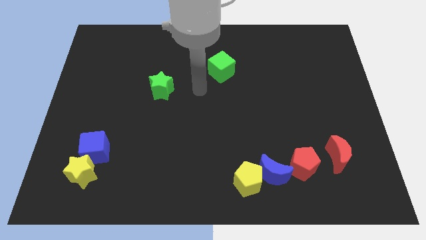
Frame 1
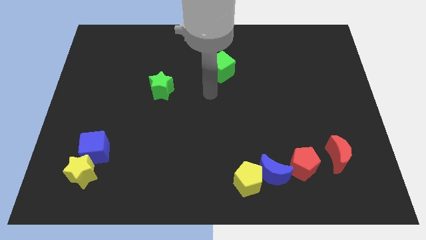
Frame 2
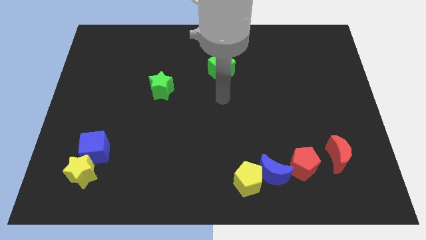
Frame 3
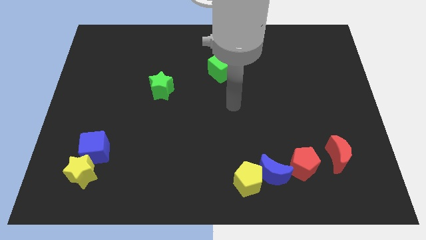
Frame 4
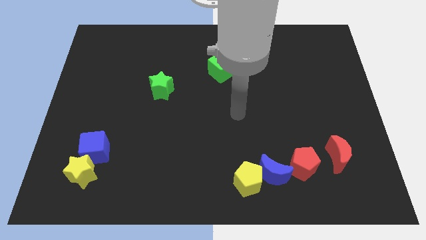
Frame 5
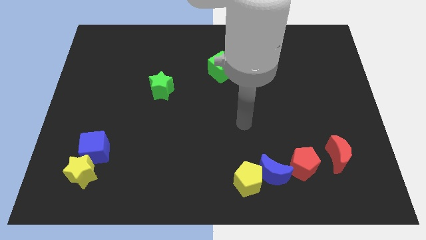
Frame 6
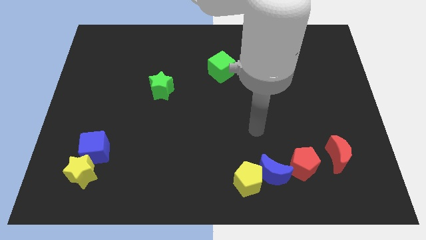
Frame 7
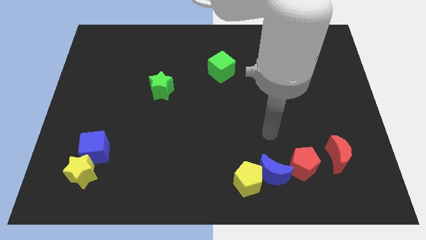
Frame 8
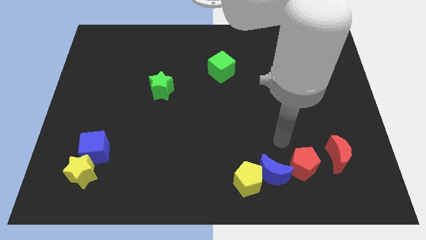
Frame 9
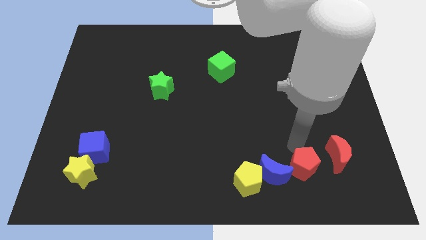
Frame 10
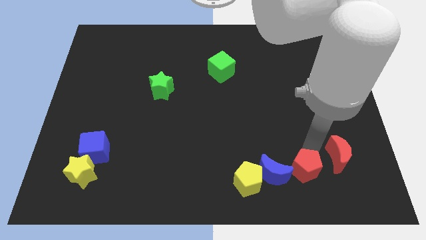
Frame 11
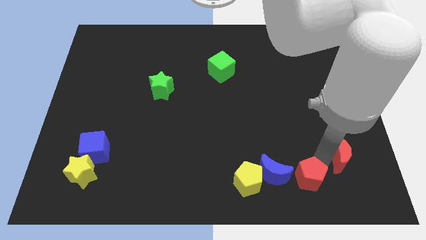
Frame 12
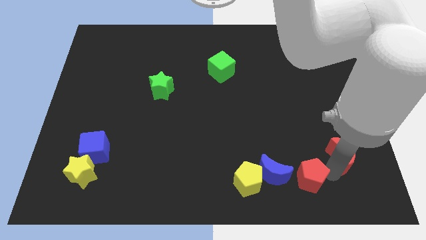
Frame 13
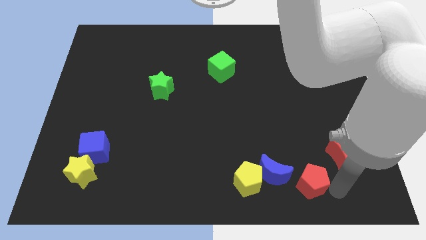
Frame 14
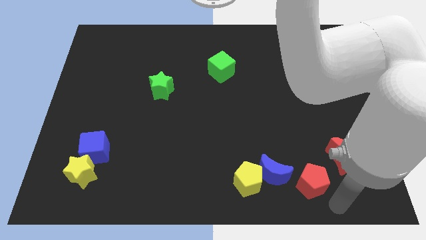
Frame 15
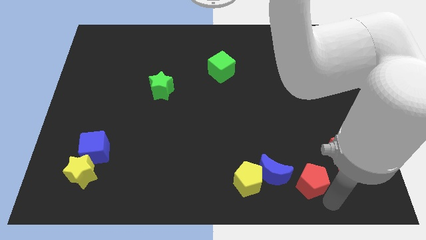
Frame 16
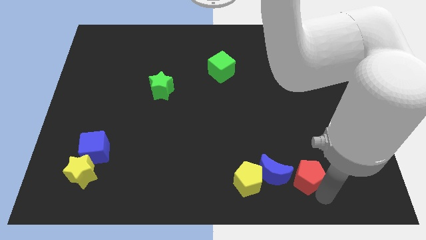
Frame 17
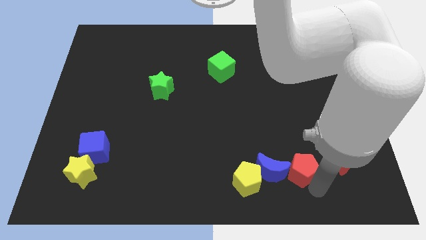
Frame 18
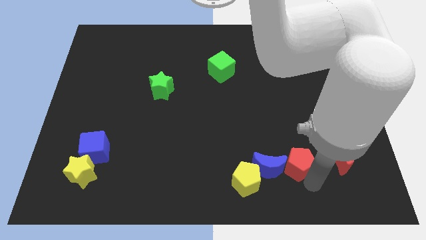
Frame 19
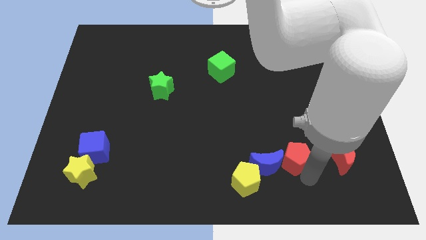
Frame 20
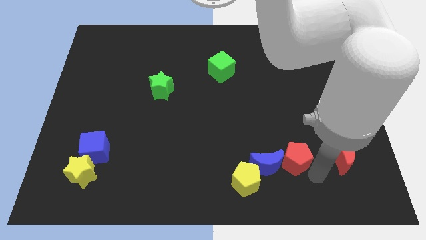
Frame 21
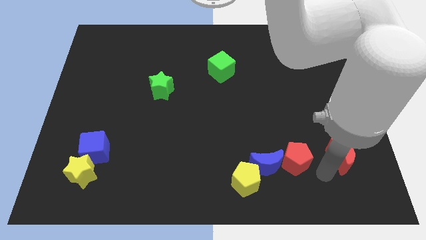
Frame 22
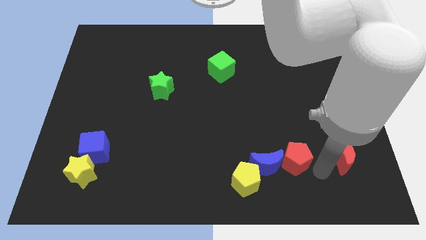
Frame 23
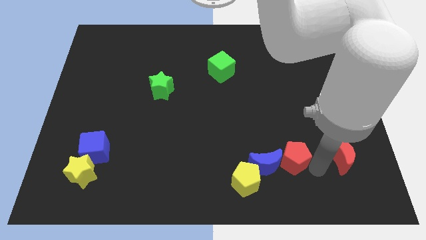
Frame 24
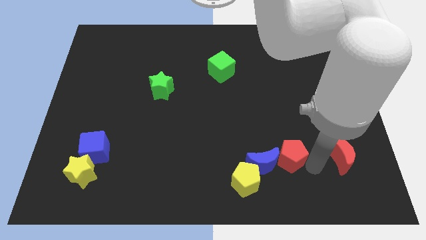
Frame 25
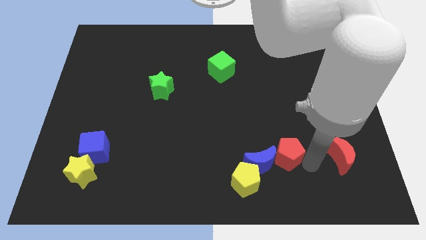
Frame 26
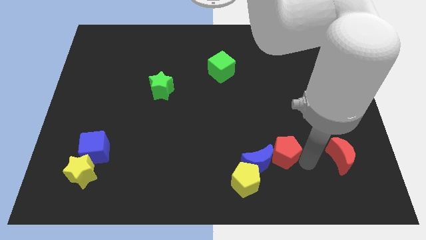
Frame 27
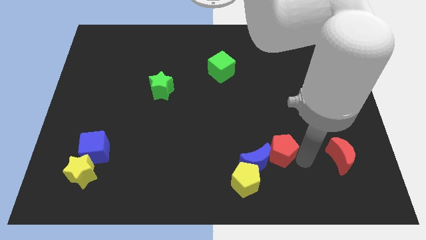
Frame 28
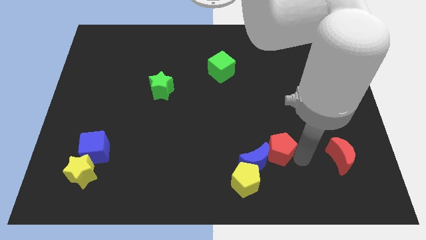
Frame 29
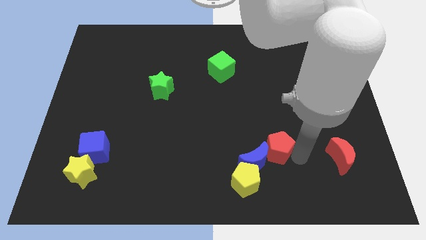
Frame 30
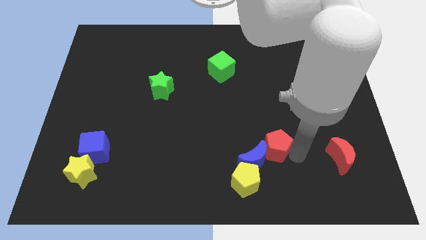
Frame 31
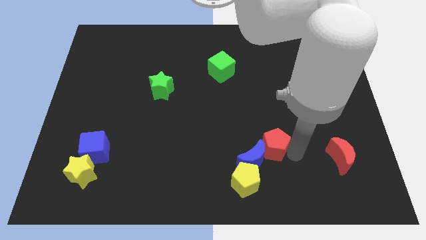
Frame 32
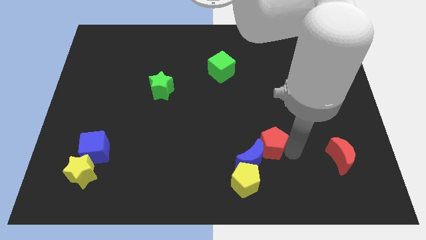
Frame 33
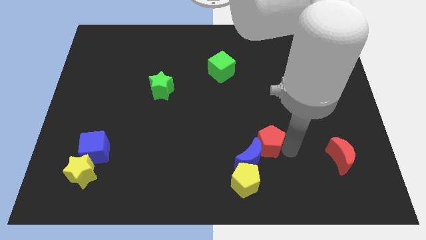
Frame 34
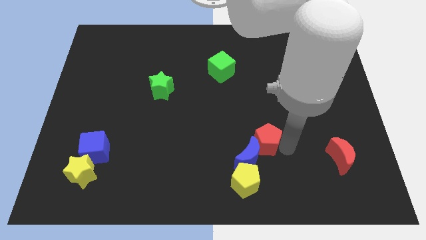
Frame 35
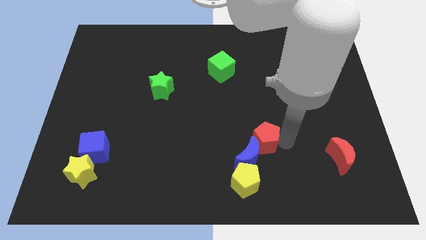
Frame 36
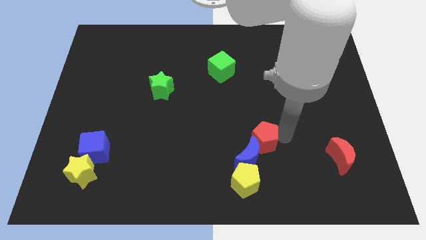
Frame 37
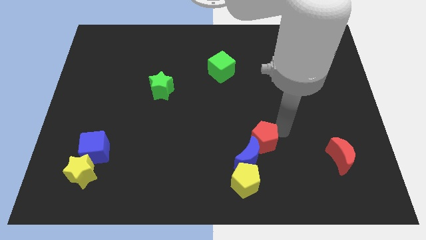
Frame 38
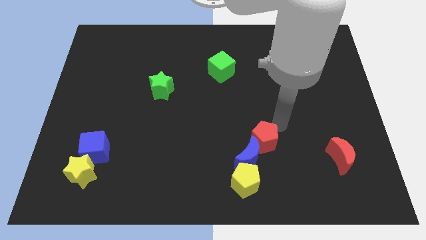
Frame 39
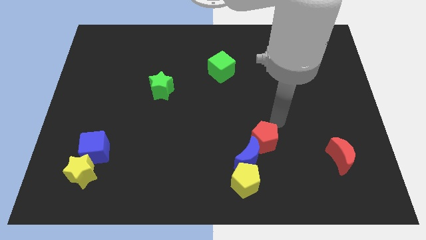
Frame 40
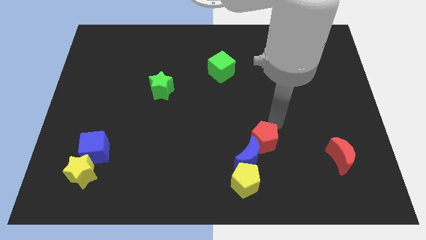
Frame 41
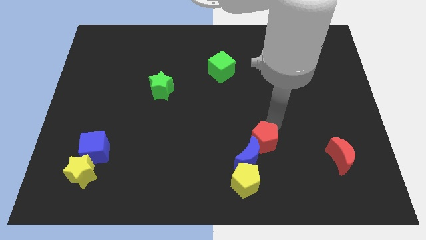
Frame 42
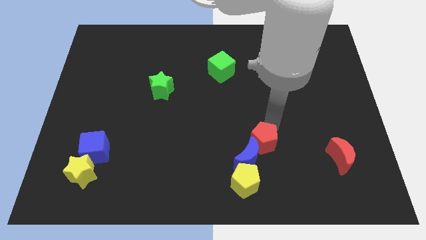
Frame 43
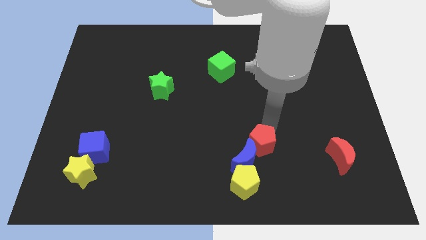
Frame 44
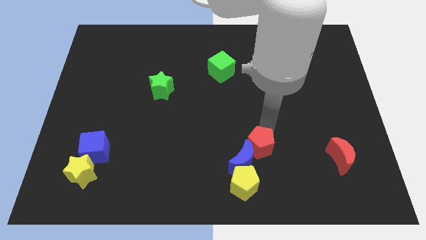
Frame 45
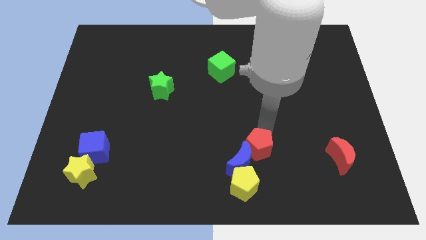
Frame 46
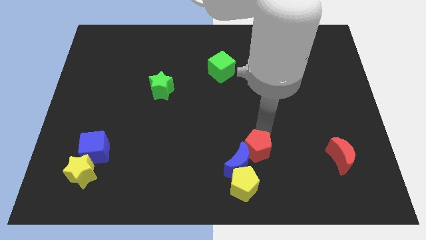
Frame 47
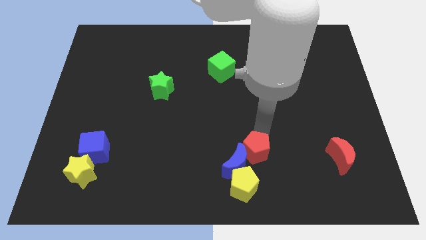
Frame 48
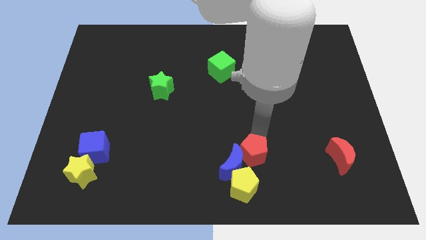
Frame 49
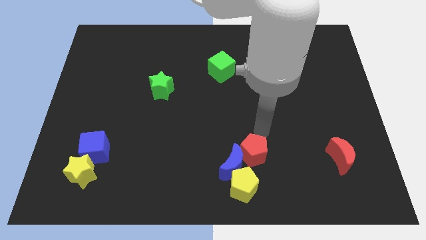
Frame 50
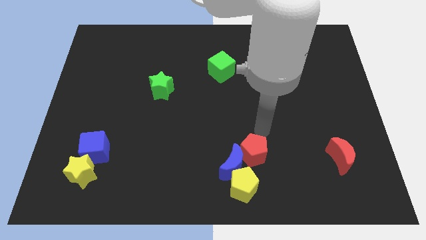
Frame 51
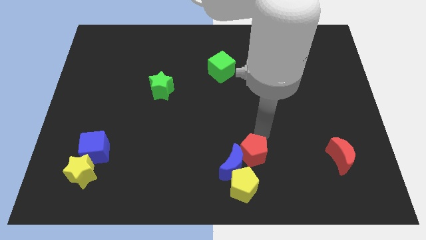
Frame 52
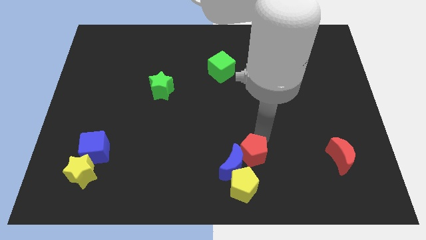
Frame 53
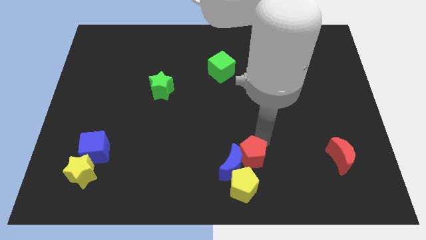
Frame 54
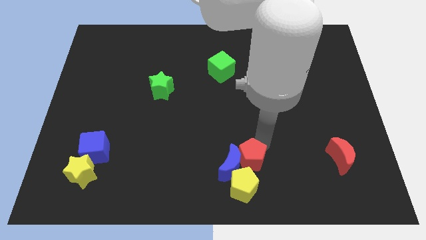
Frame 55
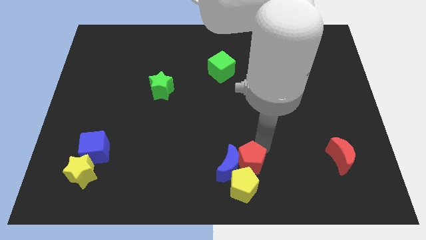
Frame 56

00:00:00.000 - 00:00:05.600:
move the red pentagon close to the yellow pentagon

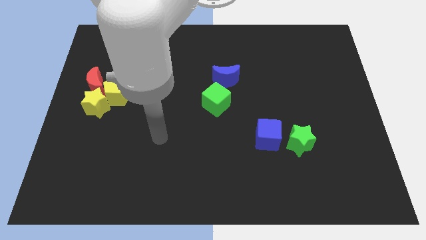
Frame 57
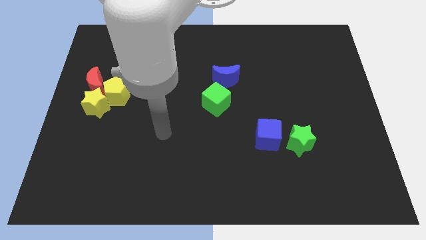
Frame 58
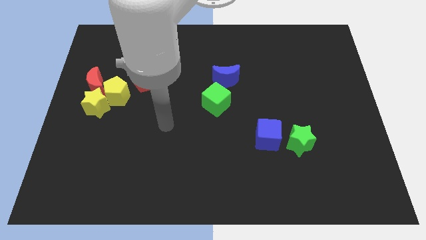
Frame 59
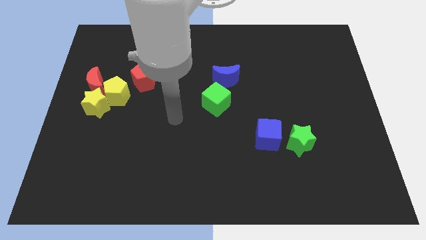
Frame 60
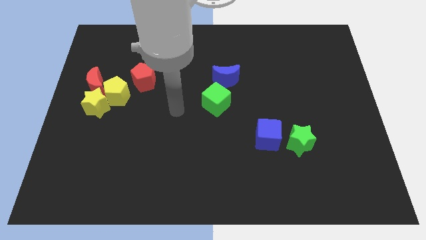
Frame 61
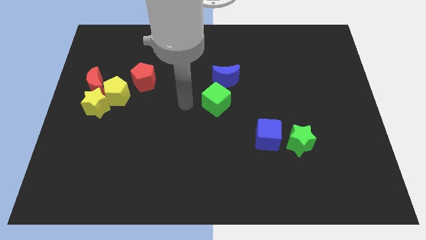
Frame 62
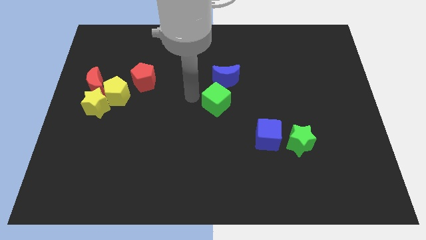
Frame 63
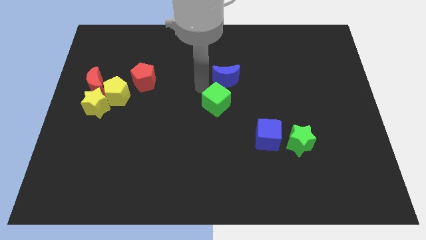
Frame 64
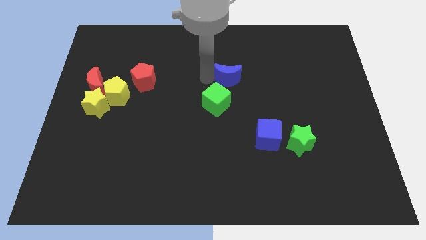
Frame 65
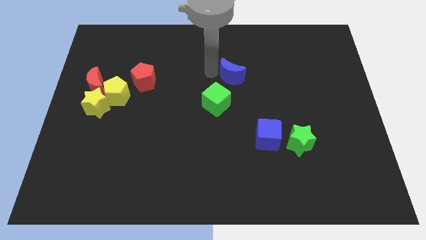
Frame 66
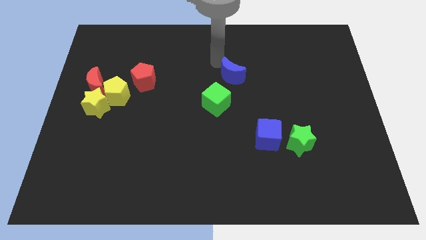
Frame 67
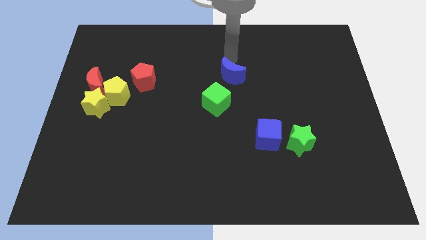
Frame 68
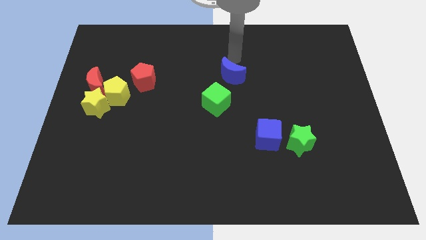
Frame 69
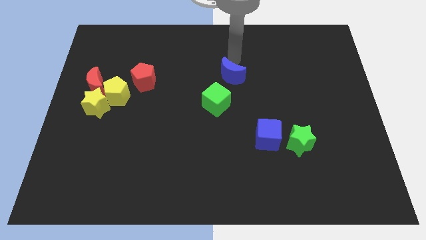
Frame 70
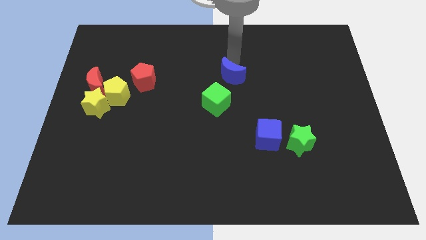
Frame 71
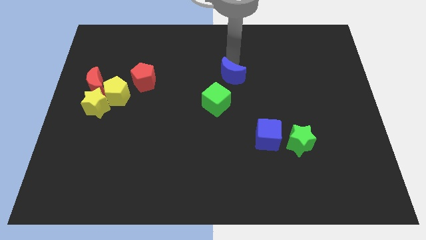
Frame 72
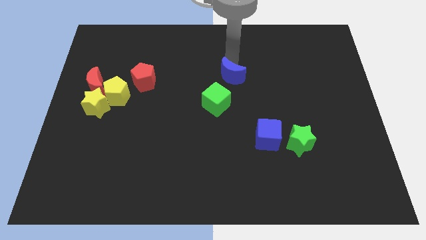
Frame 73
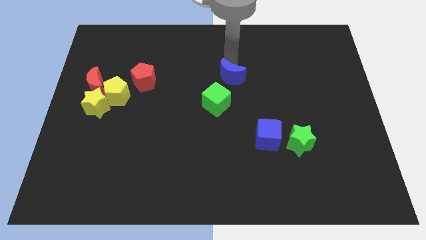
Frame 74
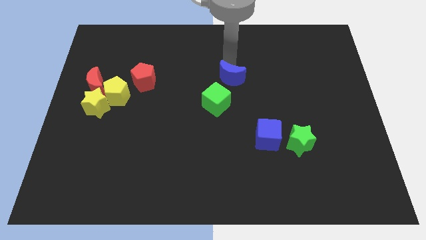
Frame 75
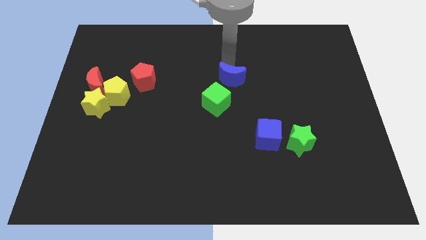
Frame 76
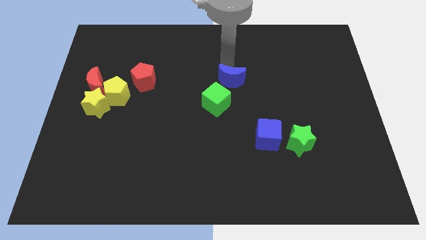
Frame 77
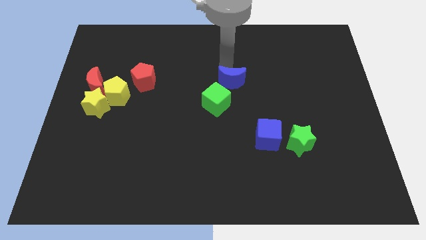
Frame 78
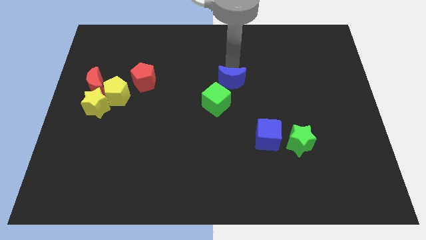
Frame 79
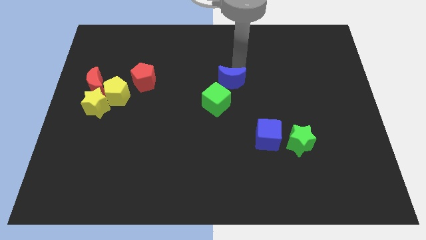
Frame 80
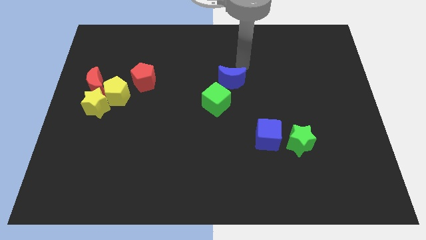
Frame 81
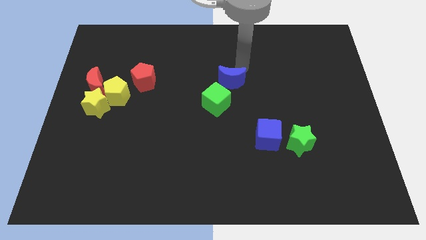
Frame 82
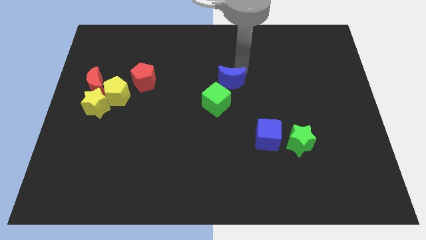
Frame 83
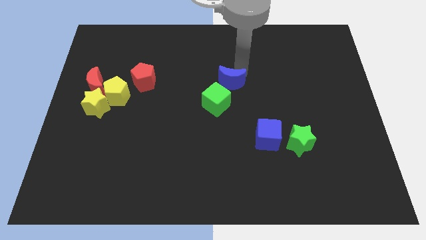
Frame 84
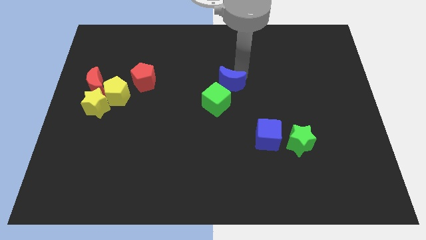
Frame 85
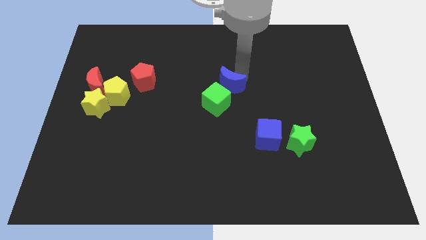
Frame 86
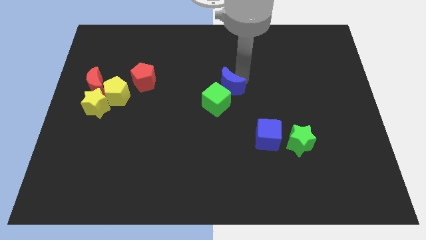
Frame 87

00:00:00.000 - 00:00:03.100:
push the blue moon towards the green cube
